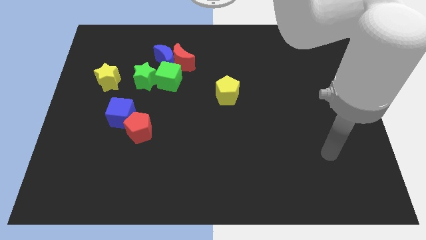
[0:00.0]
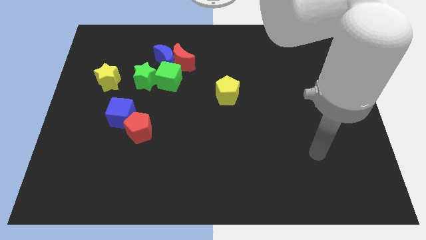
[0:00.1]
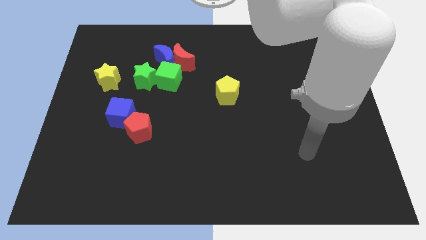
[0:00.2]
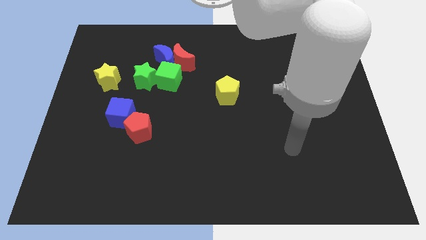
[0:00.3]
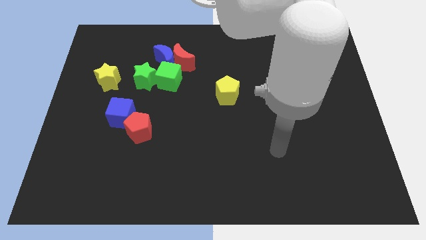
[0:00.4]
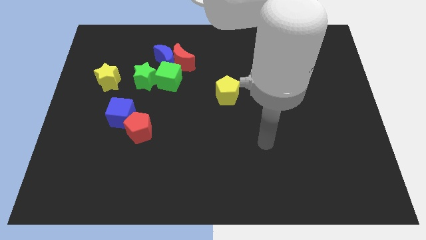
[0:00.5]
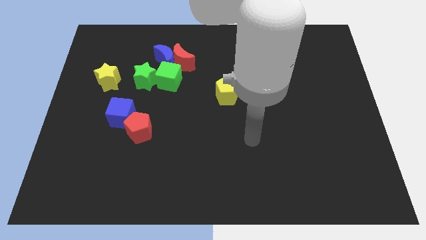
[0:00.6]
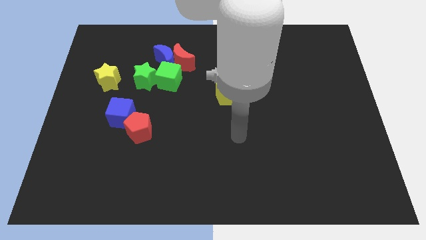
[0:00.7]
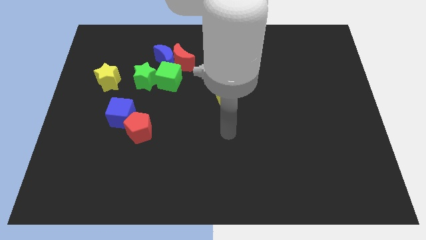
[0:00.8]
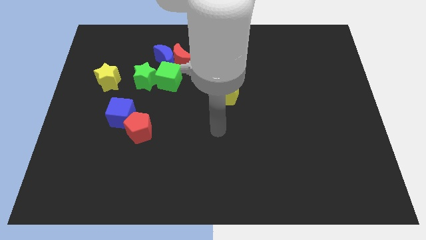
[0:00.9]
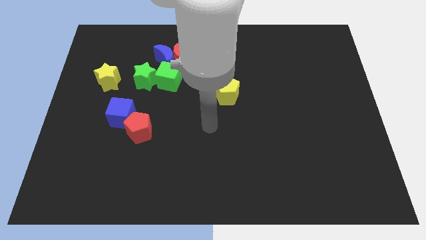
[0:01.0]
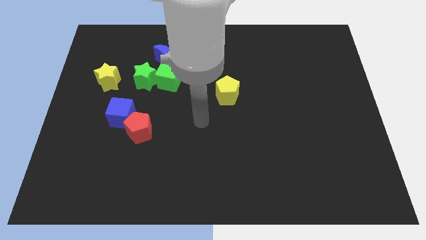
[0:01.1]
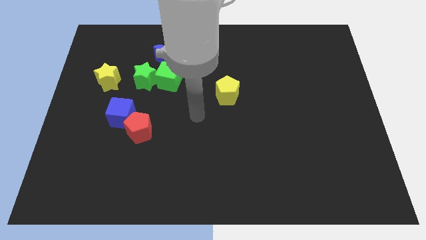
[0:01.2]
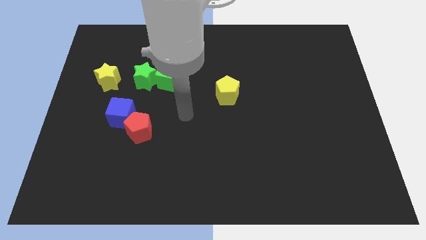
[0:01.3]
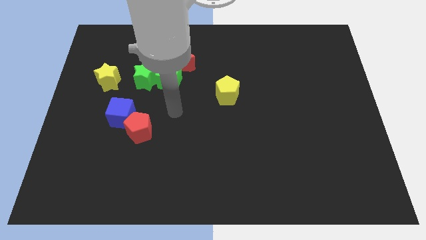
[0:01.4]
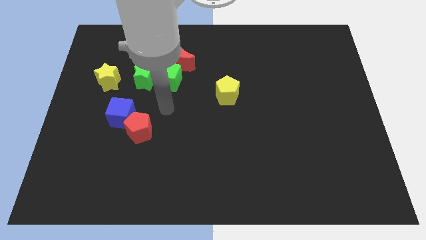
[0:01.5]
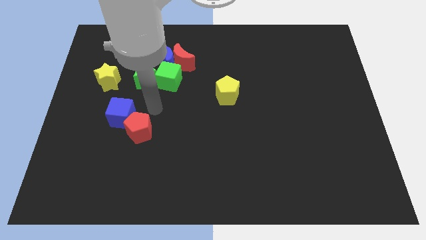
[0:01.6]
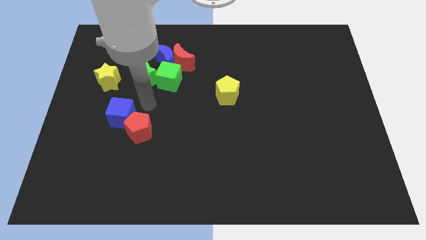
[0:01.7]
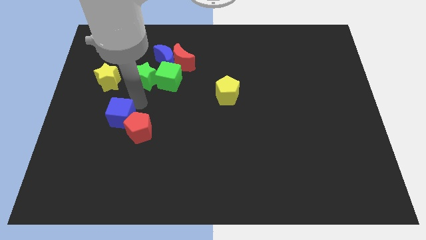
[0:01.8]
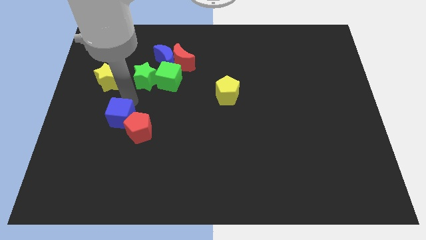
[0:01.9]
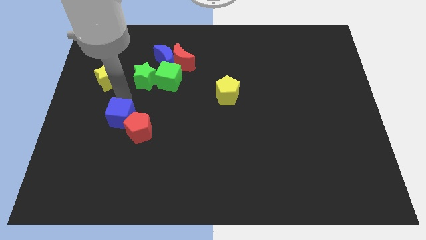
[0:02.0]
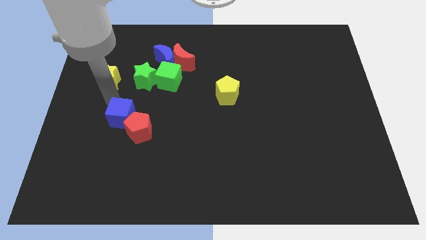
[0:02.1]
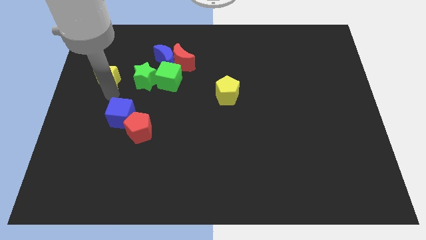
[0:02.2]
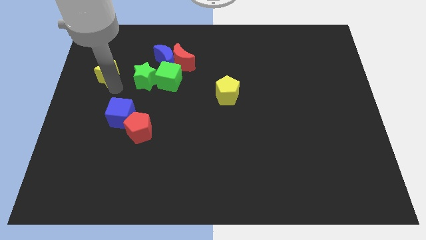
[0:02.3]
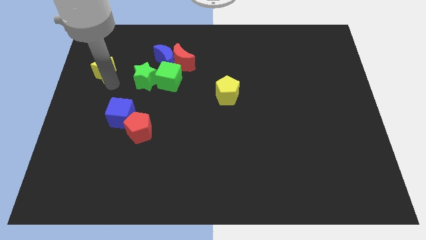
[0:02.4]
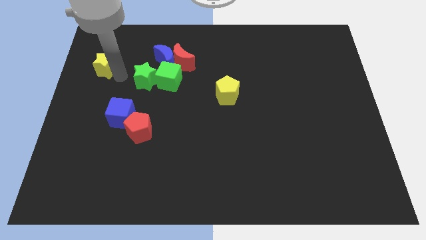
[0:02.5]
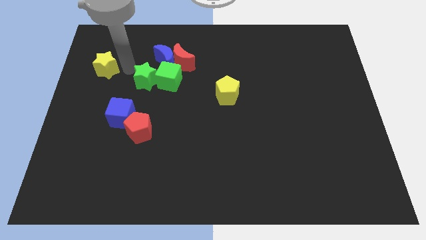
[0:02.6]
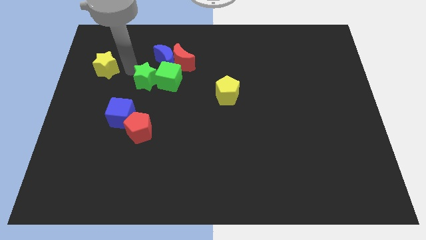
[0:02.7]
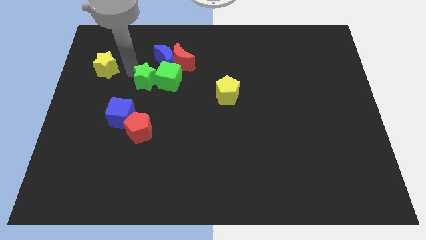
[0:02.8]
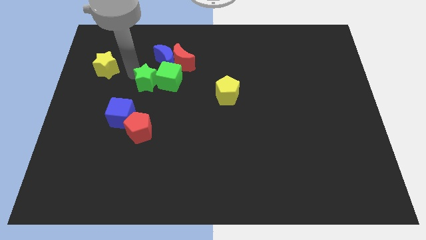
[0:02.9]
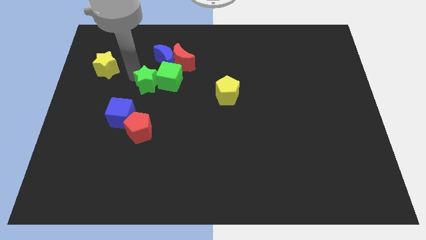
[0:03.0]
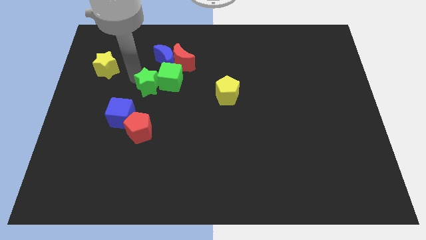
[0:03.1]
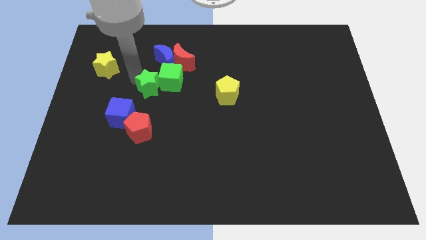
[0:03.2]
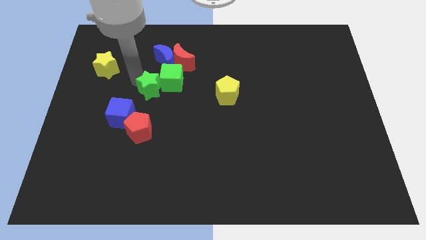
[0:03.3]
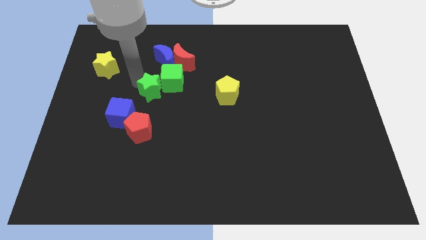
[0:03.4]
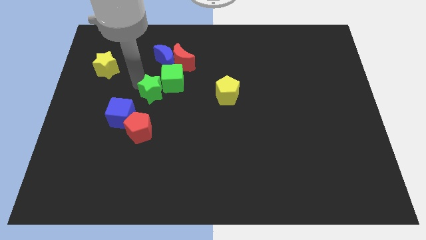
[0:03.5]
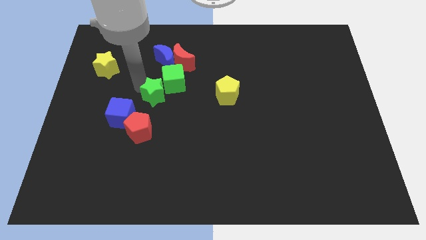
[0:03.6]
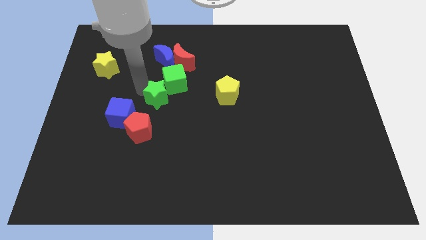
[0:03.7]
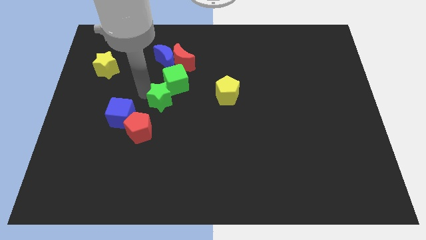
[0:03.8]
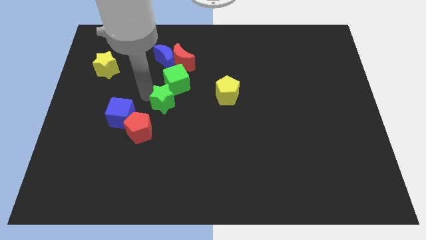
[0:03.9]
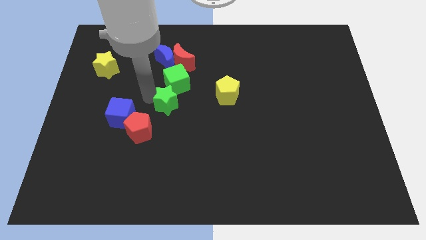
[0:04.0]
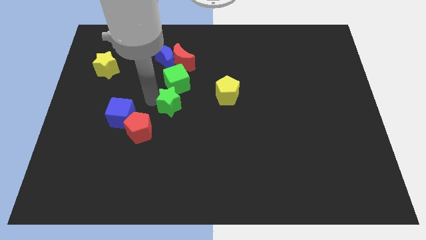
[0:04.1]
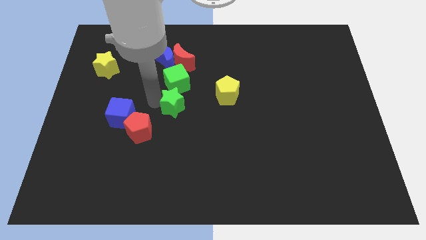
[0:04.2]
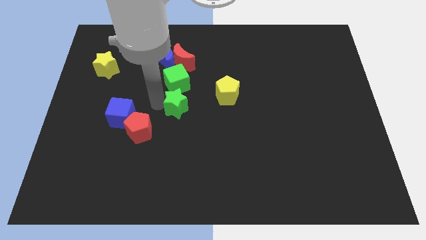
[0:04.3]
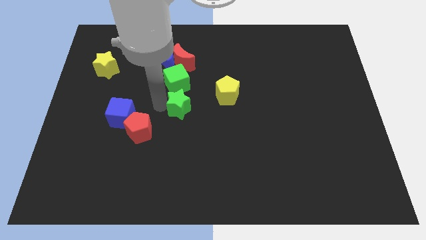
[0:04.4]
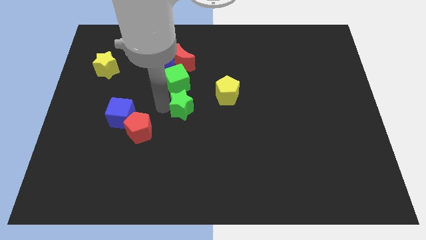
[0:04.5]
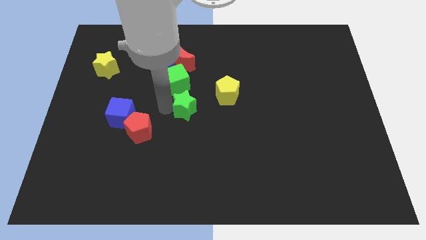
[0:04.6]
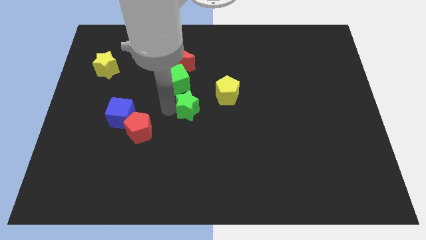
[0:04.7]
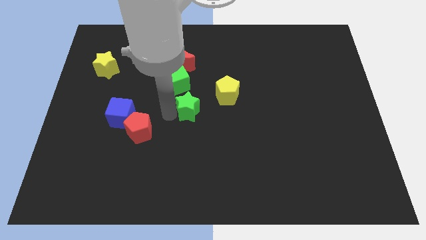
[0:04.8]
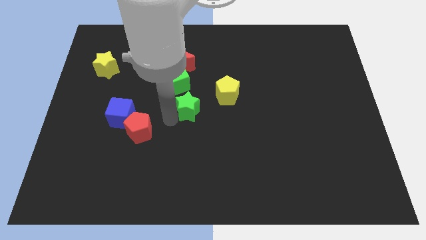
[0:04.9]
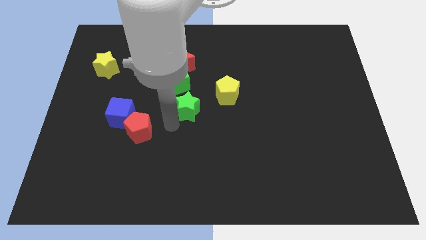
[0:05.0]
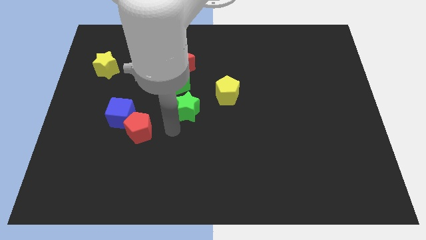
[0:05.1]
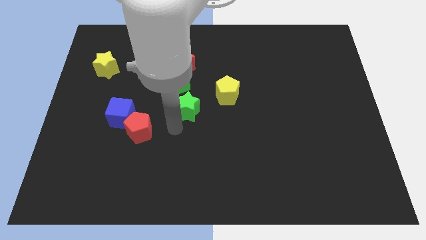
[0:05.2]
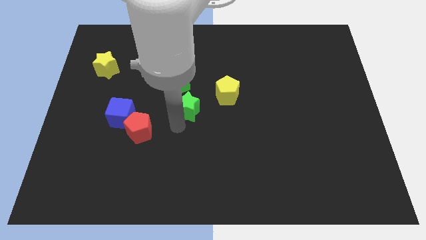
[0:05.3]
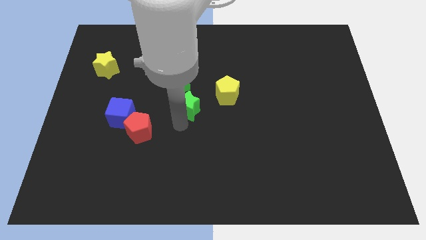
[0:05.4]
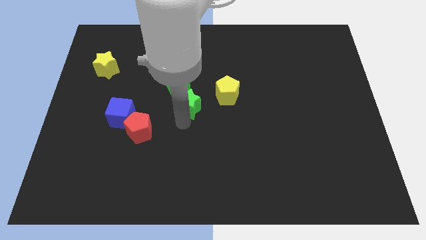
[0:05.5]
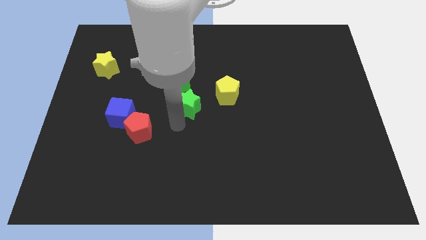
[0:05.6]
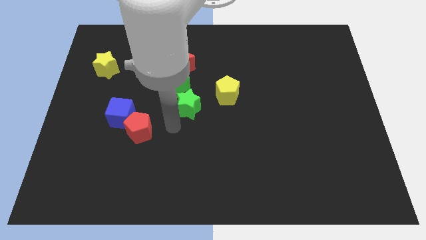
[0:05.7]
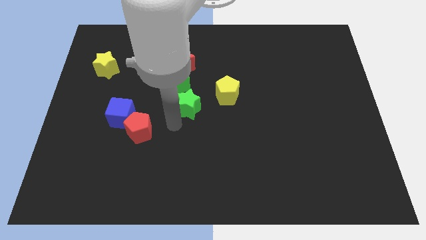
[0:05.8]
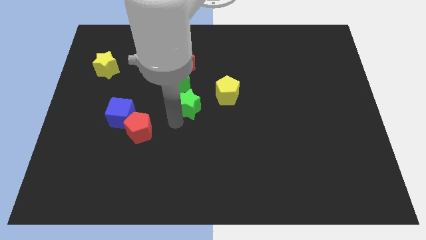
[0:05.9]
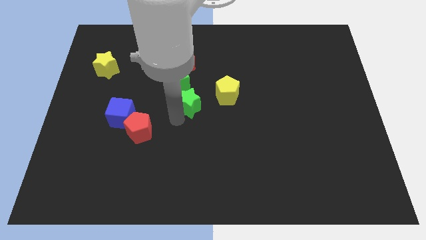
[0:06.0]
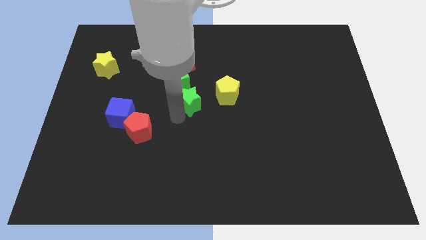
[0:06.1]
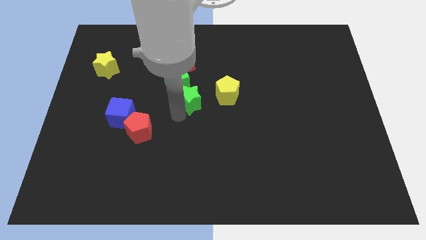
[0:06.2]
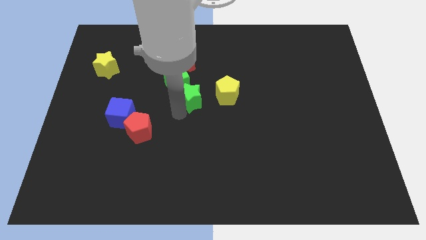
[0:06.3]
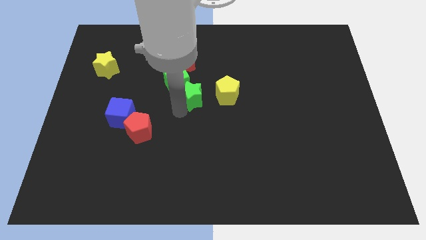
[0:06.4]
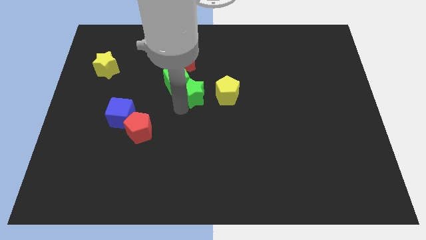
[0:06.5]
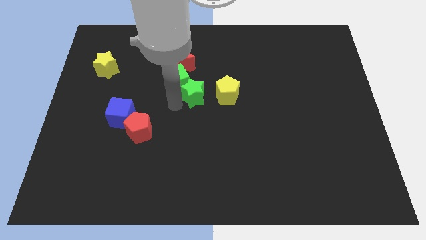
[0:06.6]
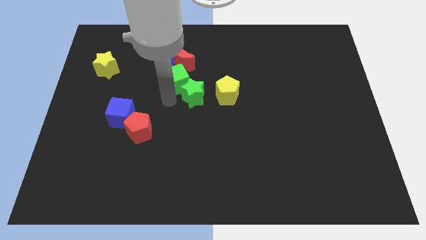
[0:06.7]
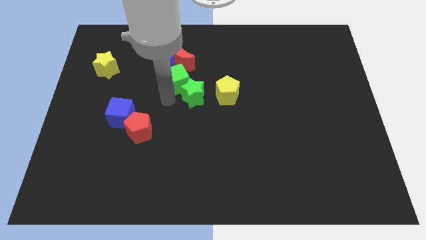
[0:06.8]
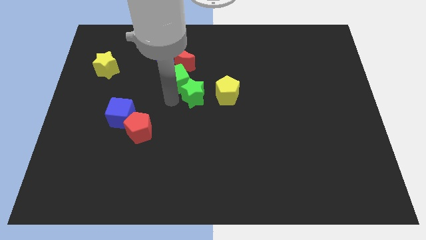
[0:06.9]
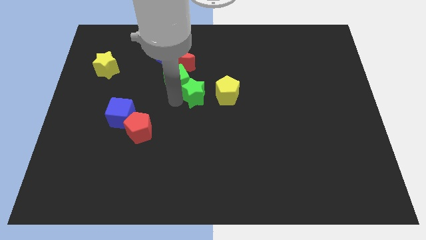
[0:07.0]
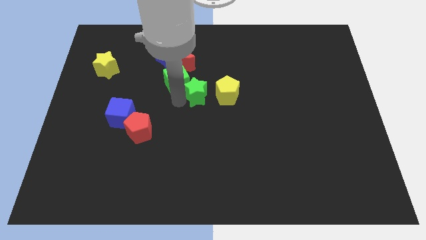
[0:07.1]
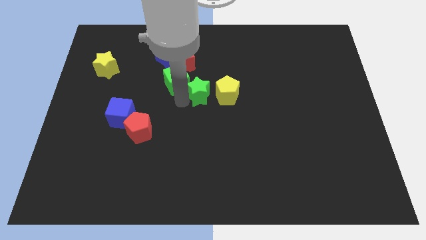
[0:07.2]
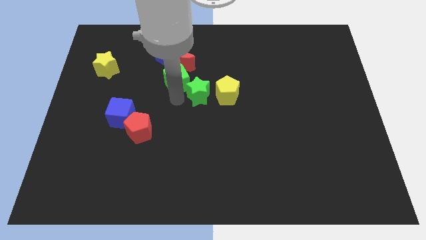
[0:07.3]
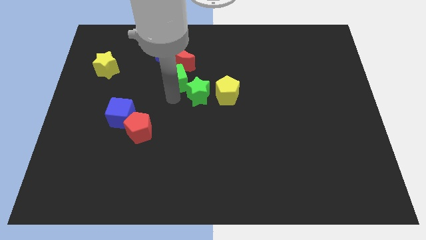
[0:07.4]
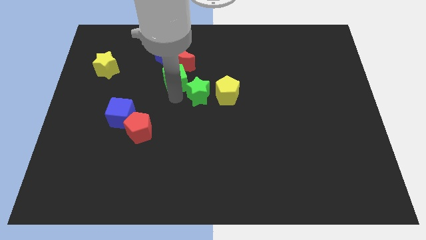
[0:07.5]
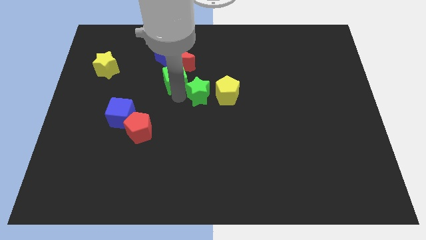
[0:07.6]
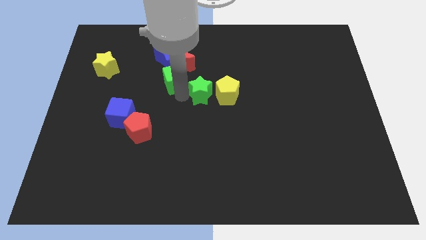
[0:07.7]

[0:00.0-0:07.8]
move the green star towards the yellow pentagon
